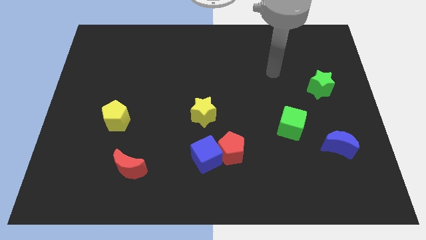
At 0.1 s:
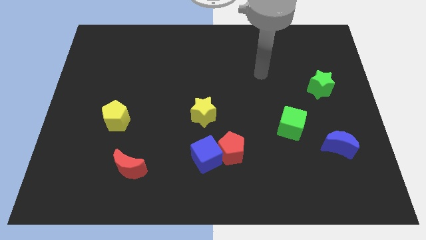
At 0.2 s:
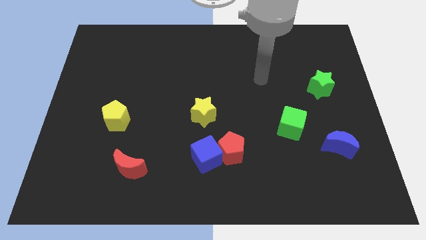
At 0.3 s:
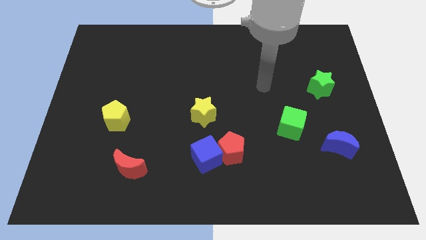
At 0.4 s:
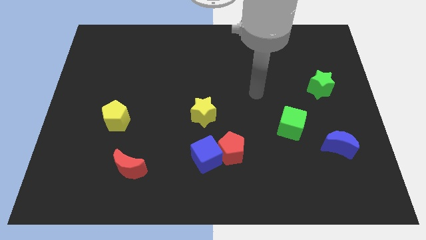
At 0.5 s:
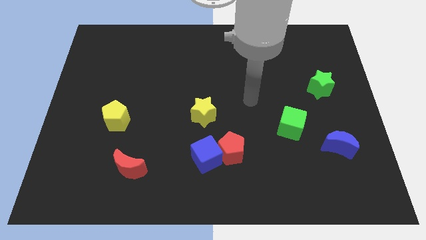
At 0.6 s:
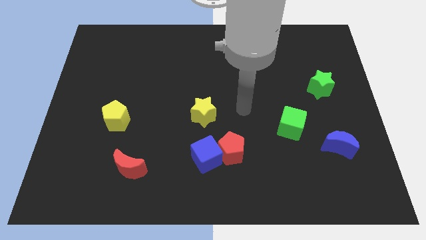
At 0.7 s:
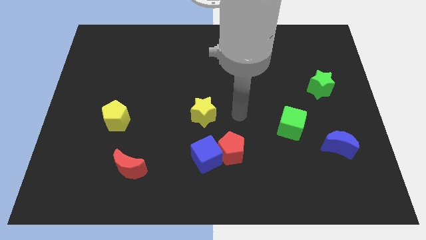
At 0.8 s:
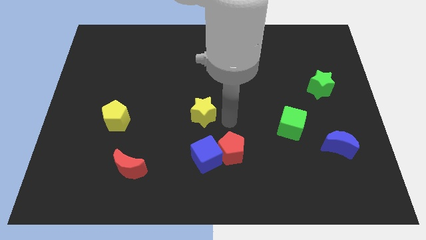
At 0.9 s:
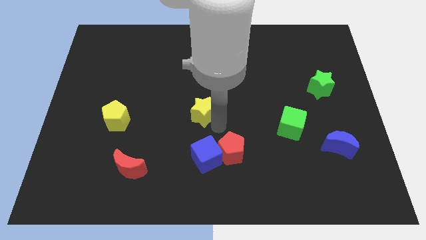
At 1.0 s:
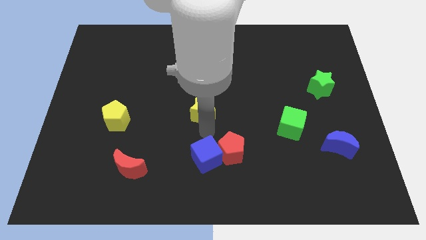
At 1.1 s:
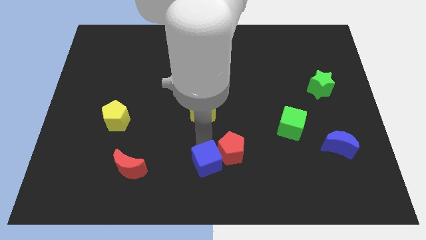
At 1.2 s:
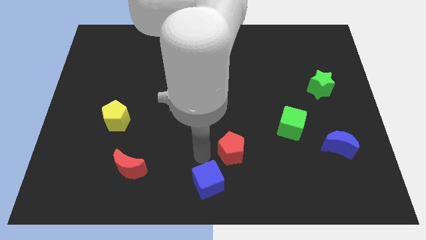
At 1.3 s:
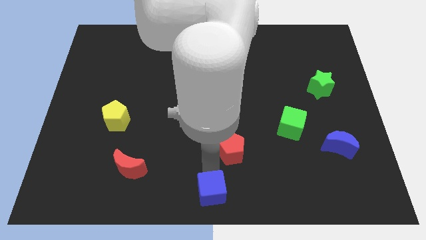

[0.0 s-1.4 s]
separate the red pentagon from the blue cube

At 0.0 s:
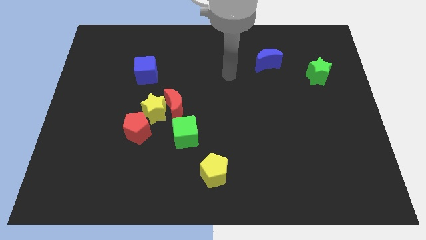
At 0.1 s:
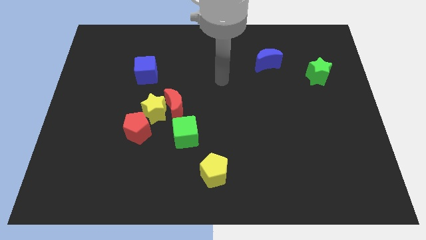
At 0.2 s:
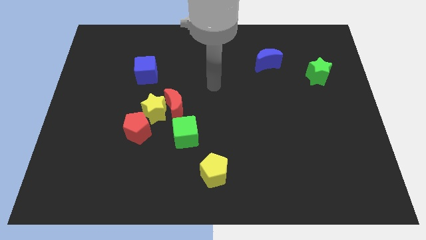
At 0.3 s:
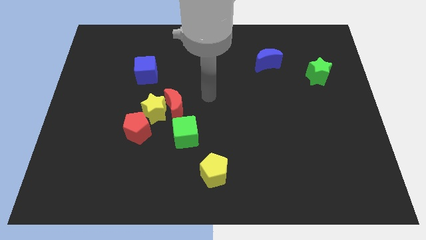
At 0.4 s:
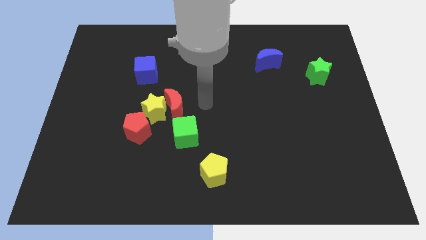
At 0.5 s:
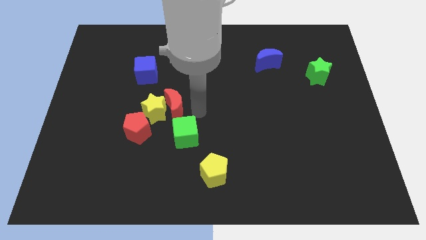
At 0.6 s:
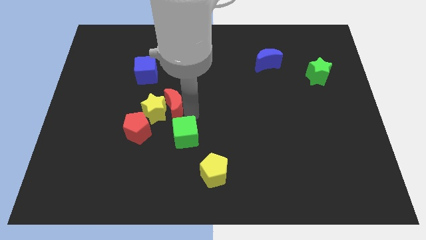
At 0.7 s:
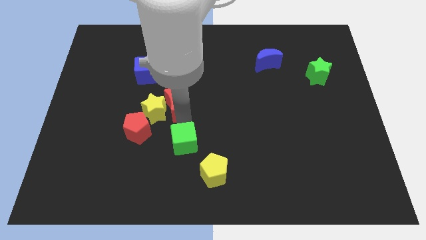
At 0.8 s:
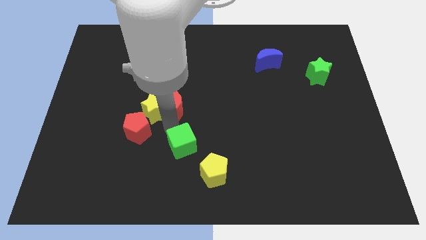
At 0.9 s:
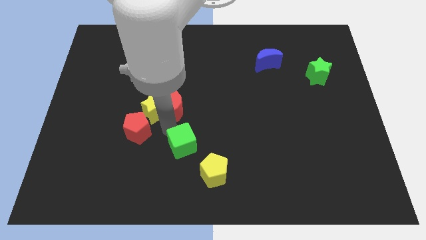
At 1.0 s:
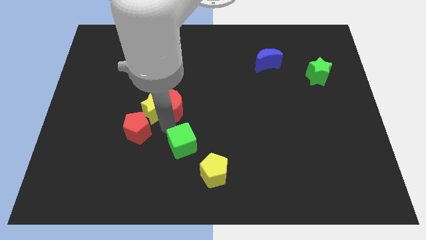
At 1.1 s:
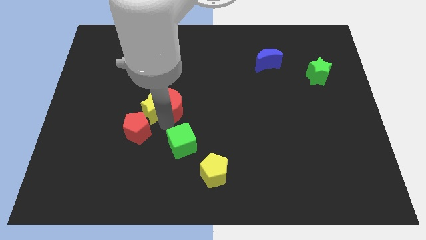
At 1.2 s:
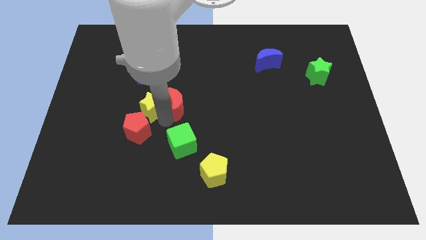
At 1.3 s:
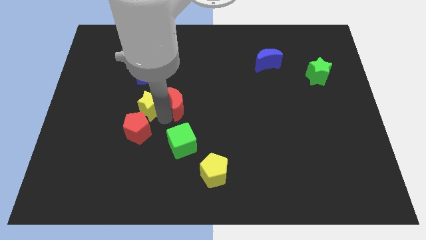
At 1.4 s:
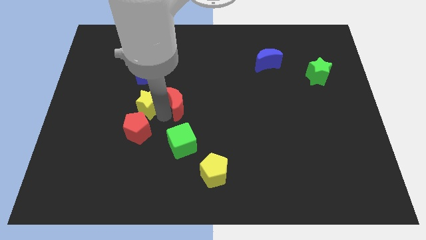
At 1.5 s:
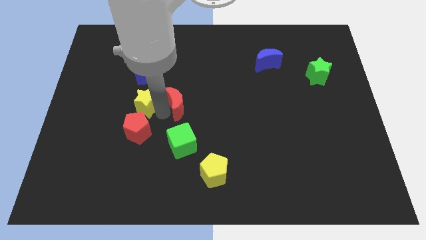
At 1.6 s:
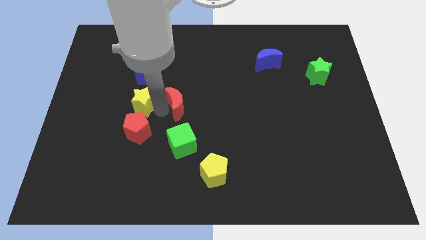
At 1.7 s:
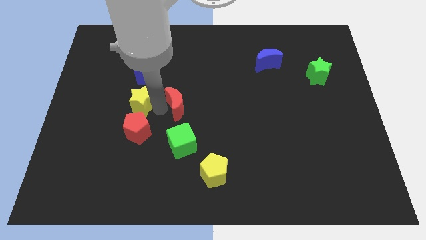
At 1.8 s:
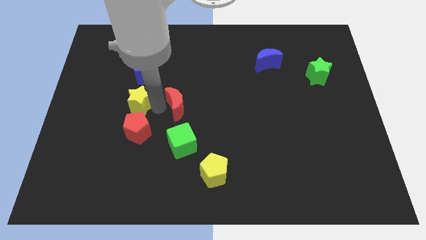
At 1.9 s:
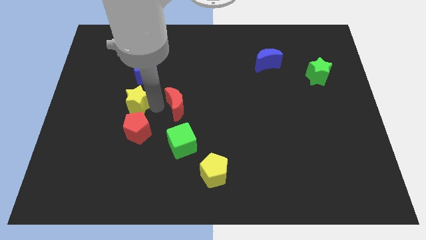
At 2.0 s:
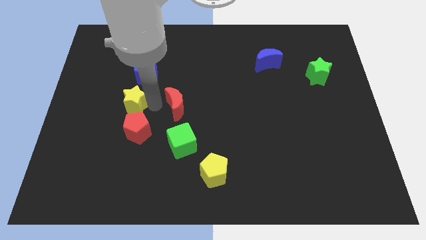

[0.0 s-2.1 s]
pull the yellow star apart from the red moon, red pentagon, and green cube

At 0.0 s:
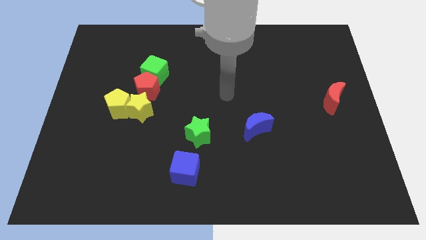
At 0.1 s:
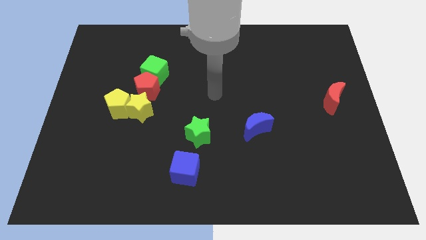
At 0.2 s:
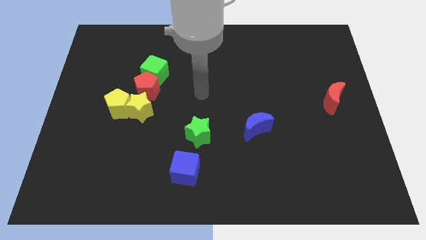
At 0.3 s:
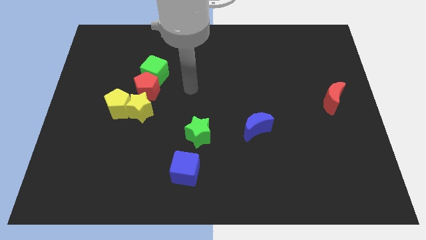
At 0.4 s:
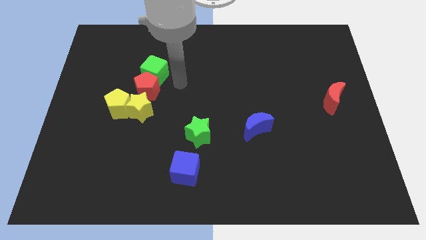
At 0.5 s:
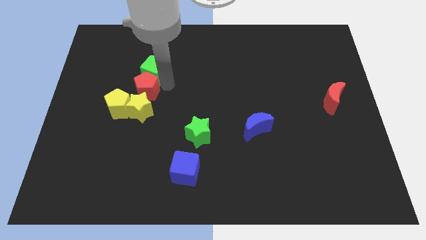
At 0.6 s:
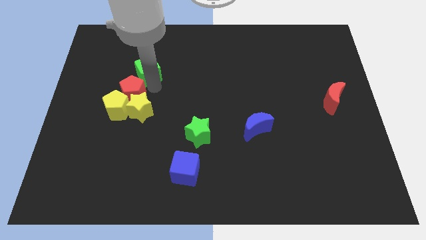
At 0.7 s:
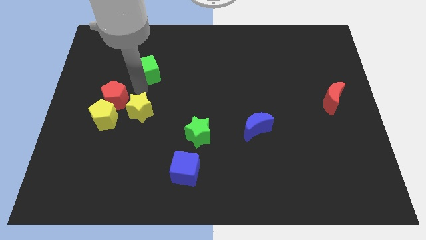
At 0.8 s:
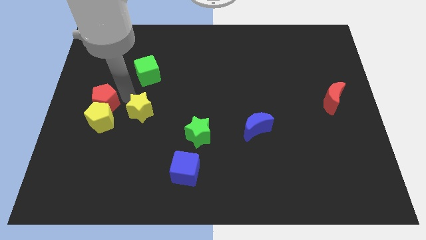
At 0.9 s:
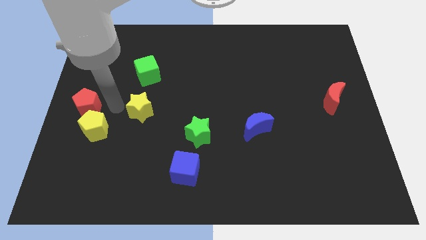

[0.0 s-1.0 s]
separate the yellow star from the yellow pentagon and red pentagon

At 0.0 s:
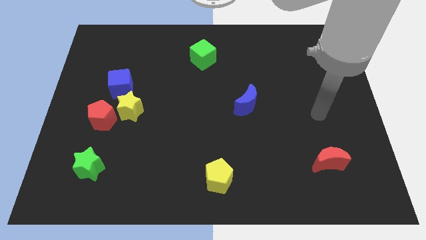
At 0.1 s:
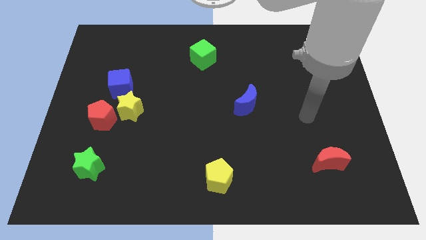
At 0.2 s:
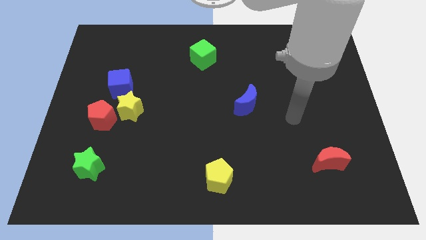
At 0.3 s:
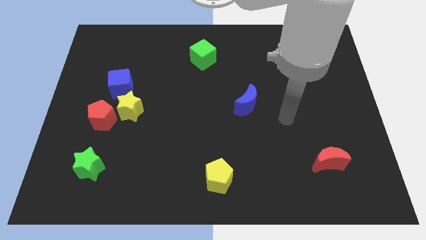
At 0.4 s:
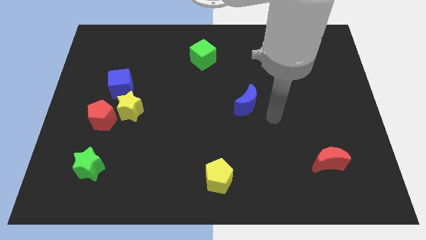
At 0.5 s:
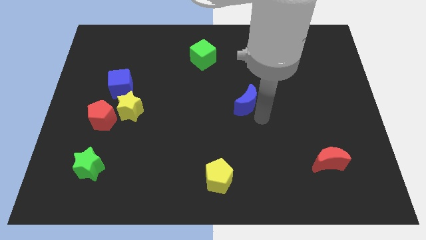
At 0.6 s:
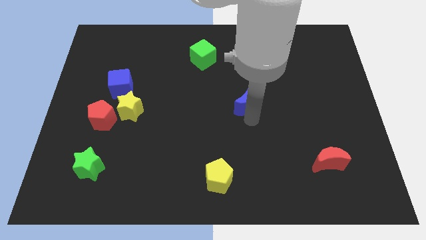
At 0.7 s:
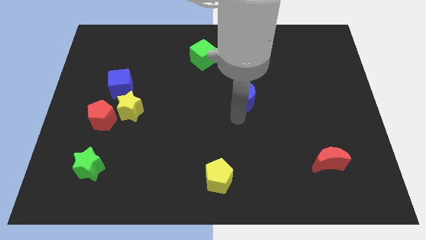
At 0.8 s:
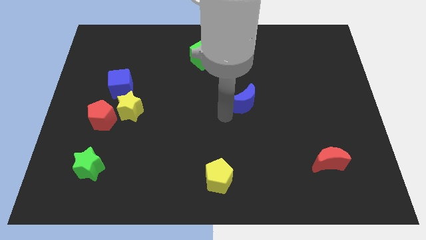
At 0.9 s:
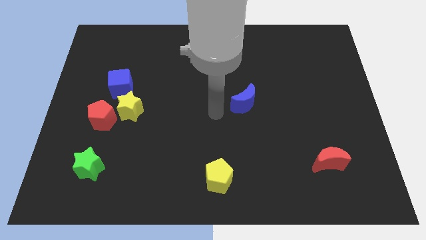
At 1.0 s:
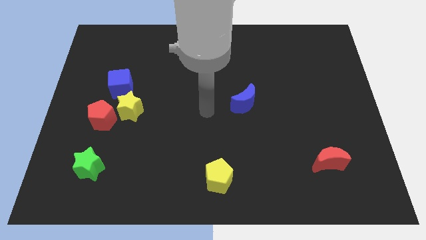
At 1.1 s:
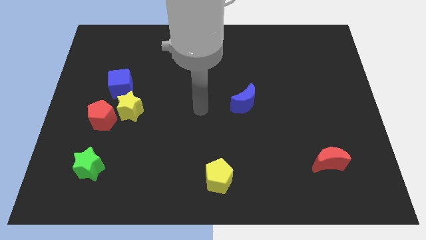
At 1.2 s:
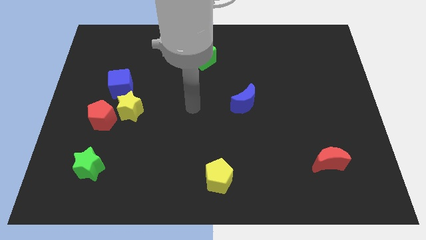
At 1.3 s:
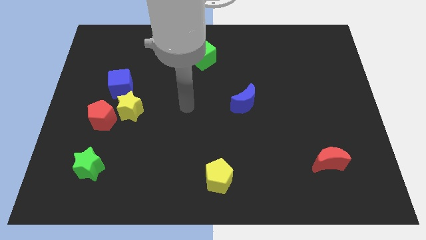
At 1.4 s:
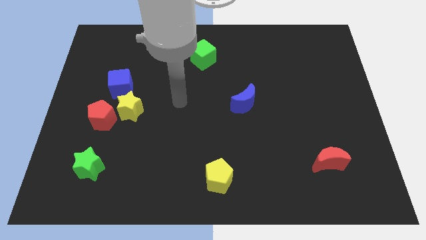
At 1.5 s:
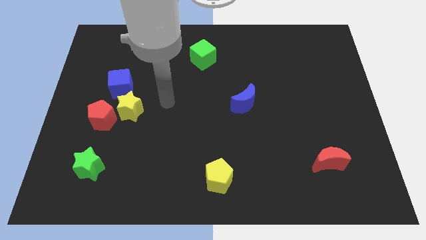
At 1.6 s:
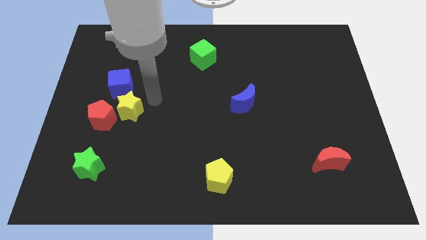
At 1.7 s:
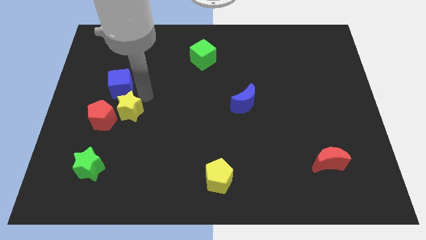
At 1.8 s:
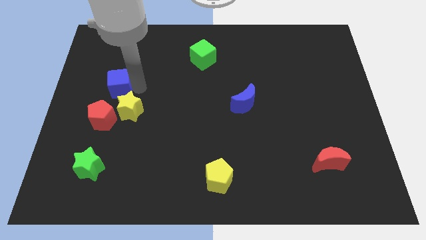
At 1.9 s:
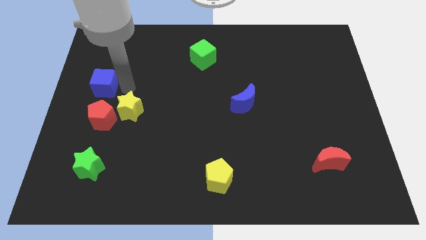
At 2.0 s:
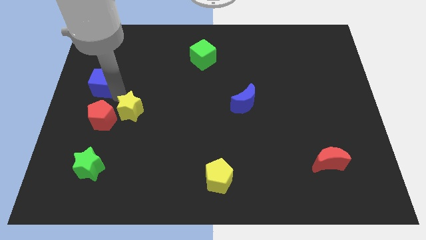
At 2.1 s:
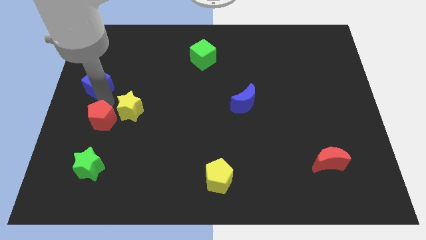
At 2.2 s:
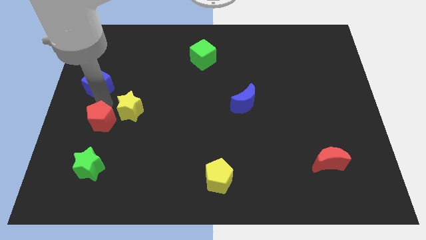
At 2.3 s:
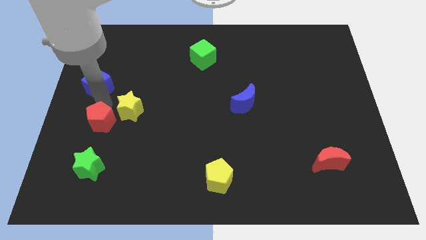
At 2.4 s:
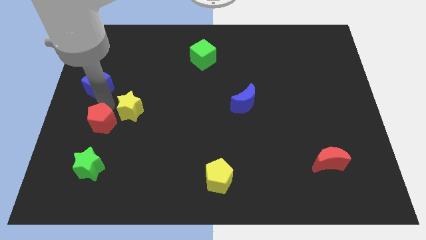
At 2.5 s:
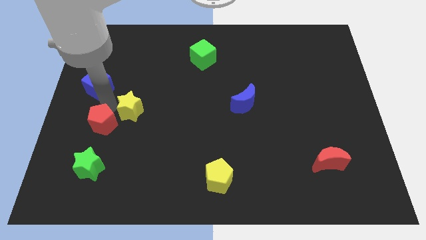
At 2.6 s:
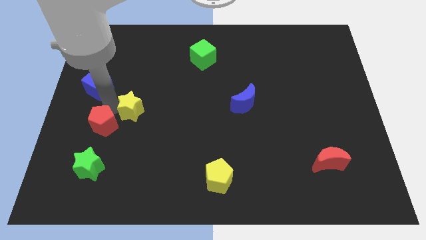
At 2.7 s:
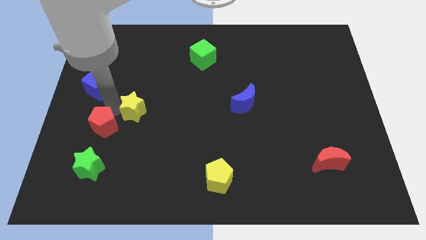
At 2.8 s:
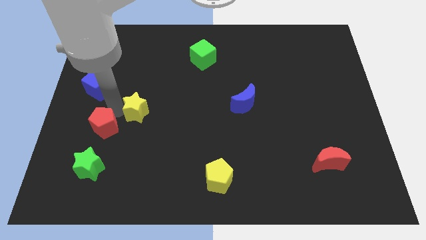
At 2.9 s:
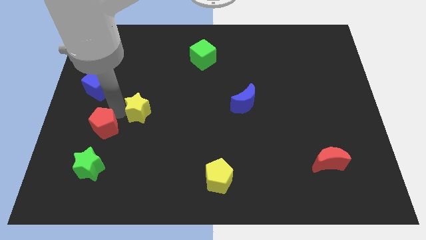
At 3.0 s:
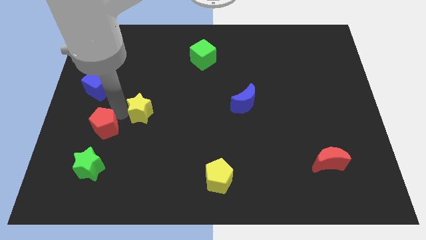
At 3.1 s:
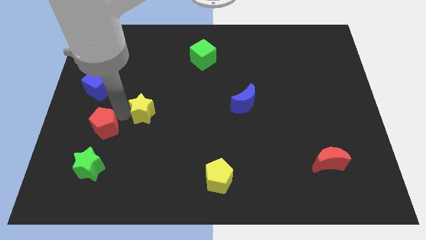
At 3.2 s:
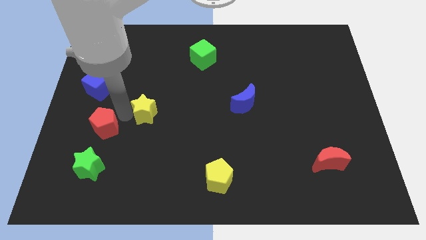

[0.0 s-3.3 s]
move the yellow star away from the red pentagon and blue cube

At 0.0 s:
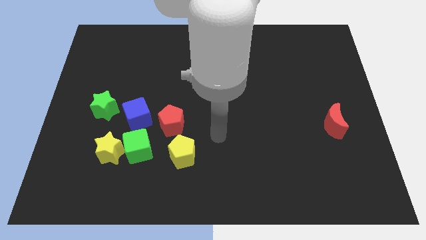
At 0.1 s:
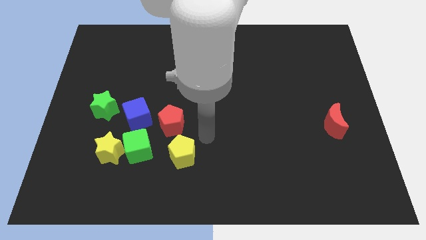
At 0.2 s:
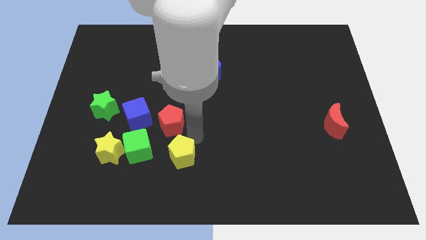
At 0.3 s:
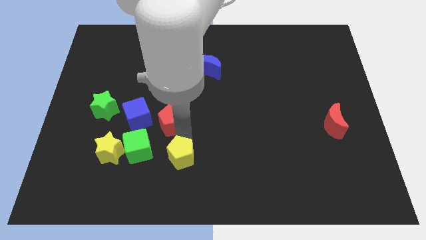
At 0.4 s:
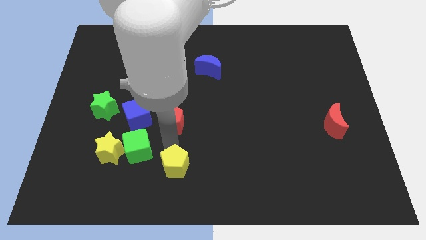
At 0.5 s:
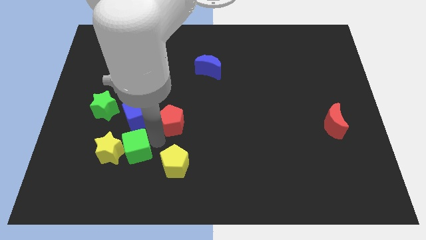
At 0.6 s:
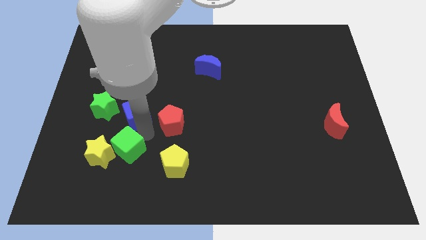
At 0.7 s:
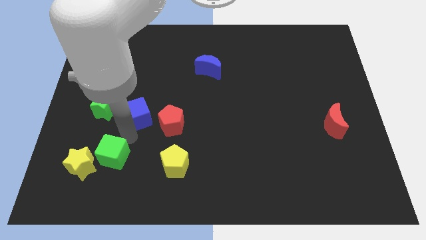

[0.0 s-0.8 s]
separate the yellow star from the green cube and blue cube

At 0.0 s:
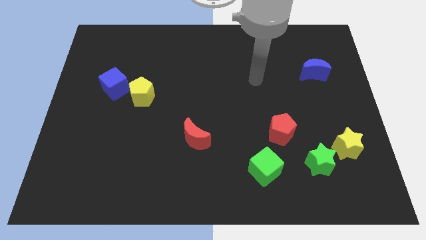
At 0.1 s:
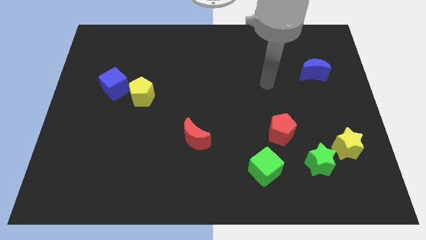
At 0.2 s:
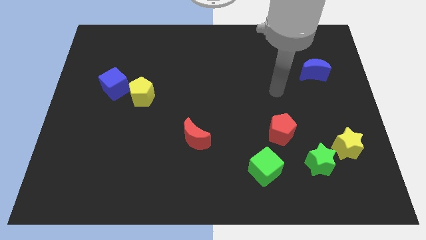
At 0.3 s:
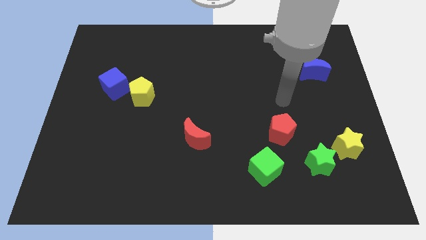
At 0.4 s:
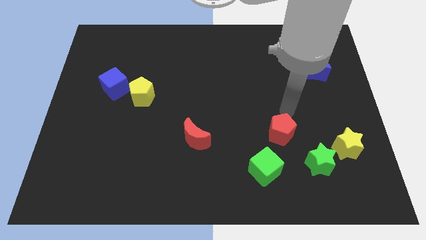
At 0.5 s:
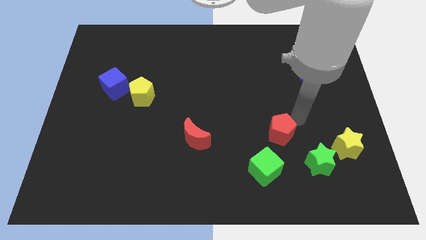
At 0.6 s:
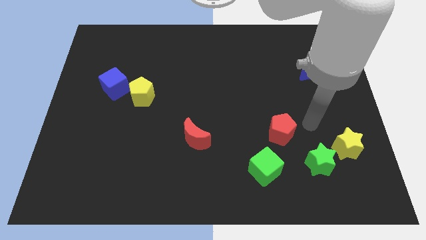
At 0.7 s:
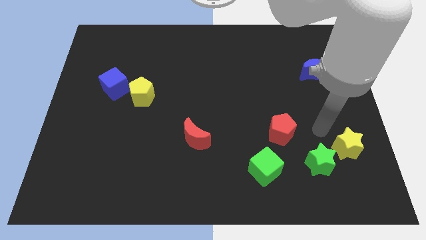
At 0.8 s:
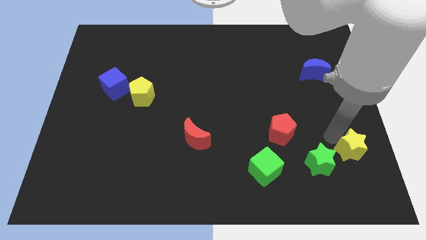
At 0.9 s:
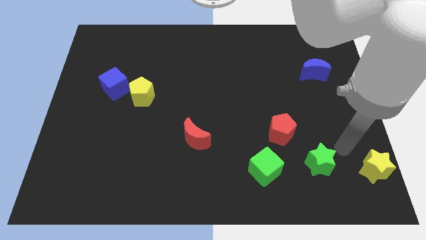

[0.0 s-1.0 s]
move the green star away from the yellow star
